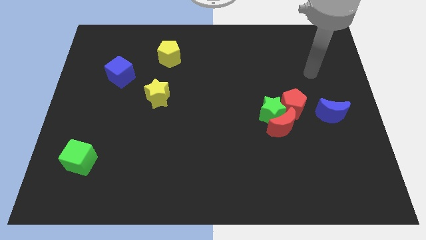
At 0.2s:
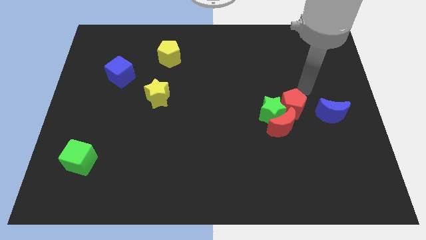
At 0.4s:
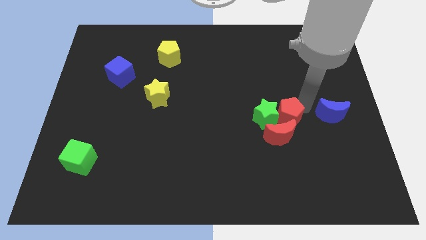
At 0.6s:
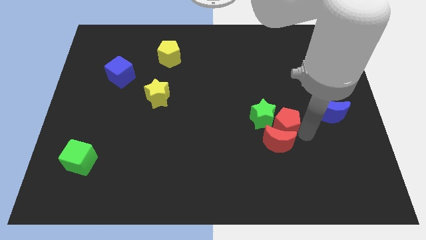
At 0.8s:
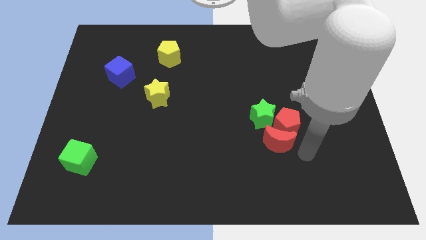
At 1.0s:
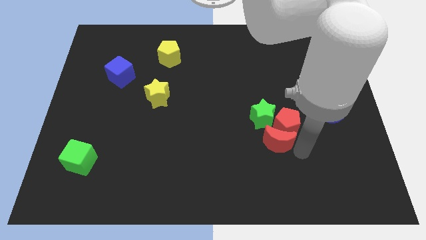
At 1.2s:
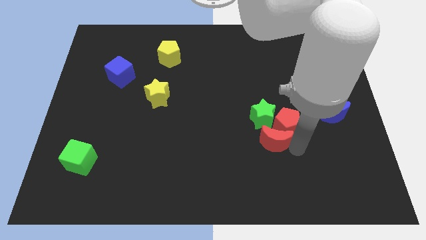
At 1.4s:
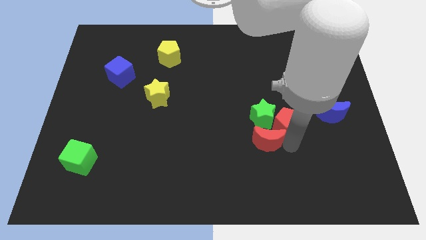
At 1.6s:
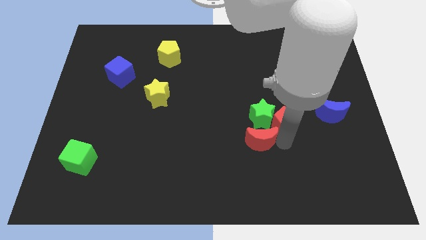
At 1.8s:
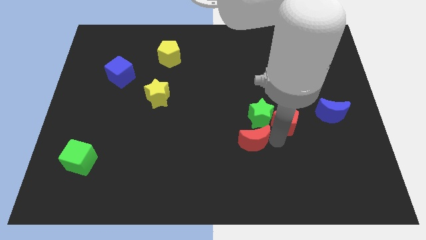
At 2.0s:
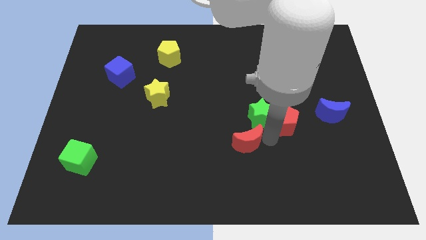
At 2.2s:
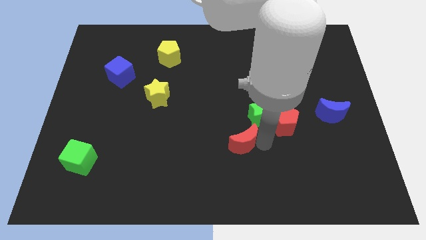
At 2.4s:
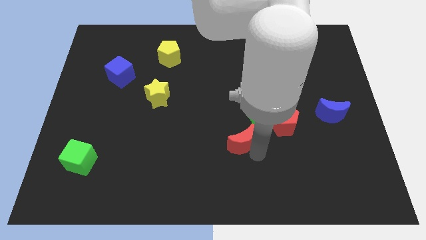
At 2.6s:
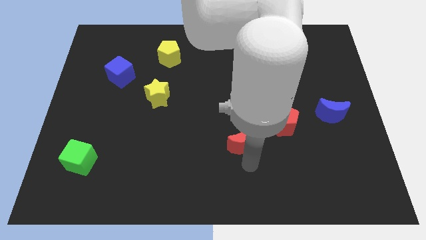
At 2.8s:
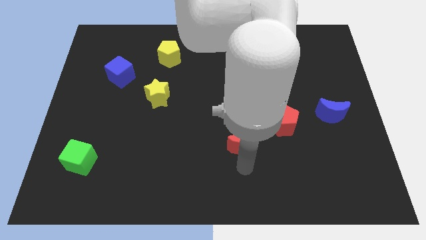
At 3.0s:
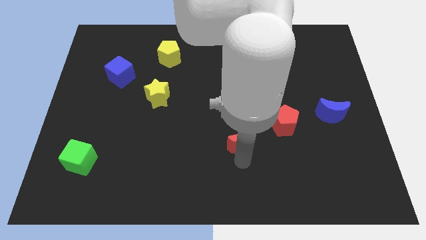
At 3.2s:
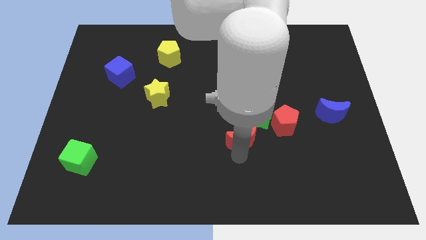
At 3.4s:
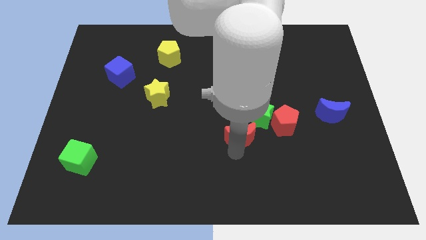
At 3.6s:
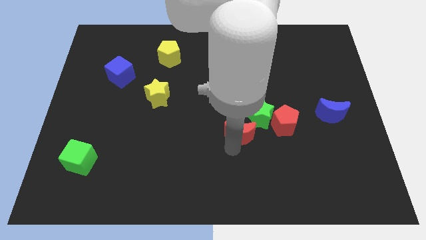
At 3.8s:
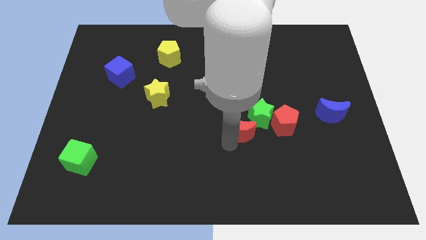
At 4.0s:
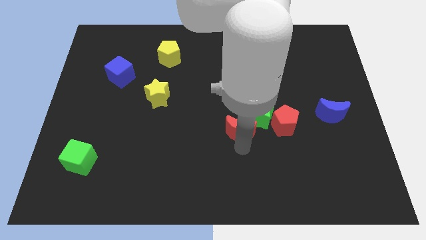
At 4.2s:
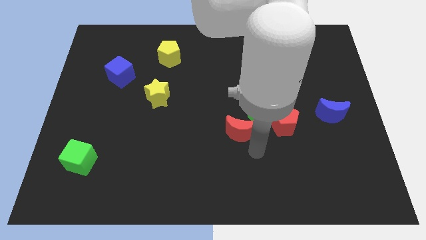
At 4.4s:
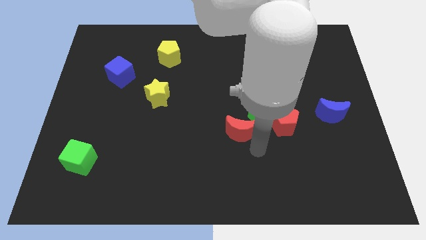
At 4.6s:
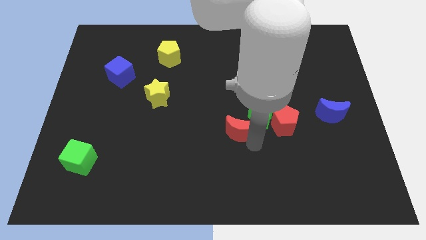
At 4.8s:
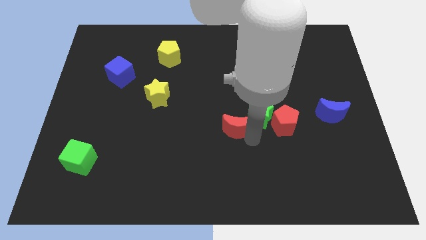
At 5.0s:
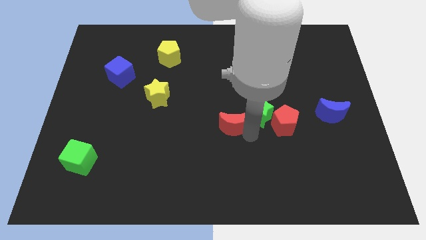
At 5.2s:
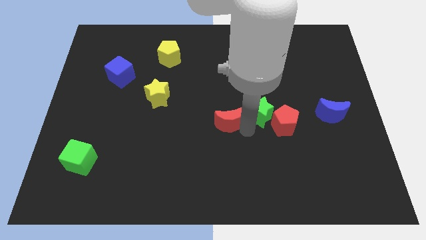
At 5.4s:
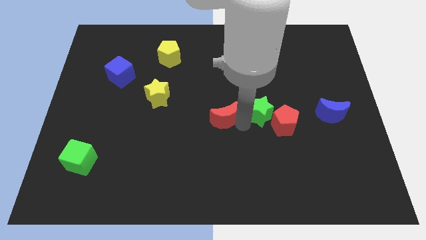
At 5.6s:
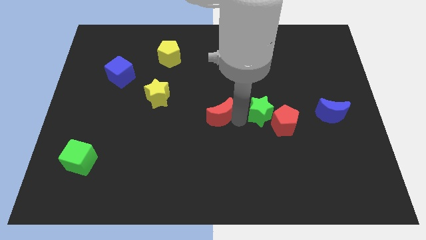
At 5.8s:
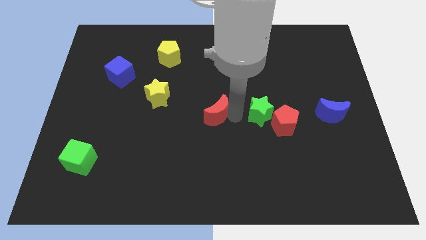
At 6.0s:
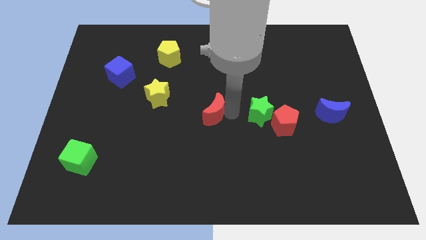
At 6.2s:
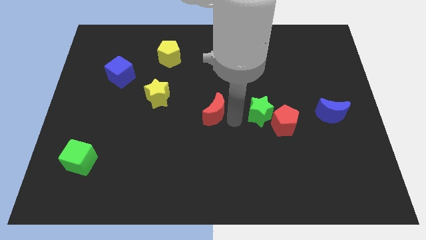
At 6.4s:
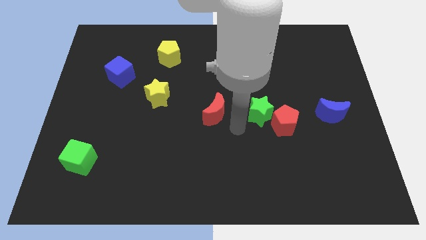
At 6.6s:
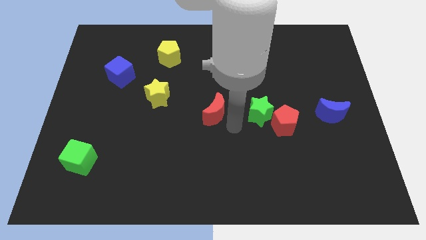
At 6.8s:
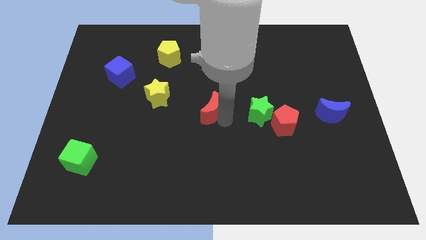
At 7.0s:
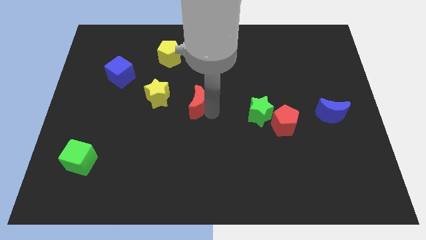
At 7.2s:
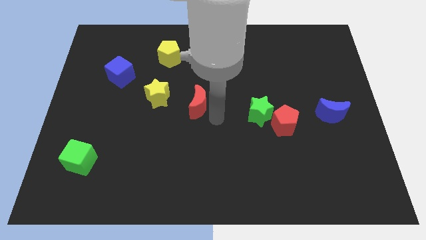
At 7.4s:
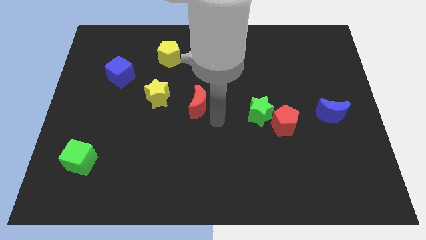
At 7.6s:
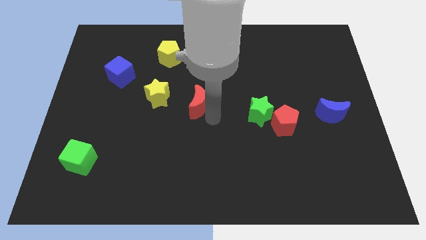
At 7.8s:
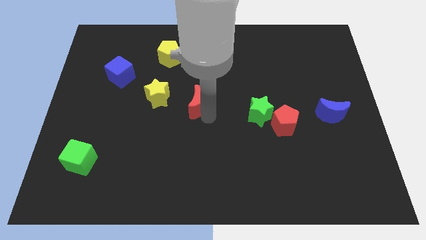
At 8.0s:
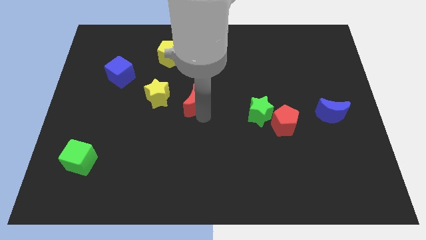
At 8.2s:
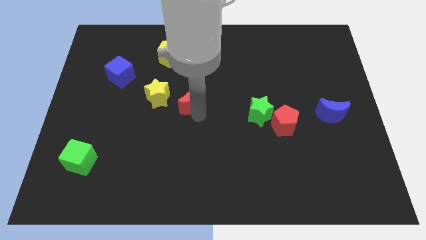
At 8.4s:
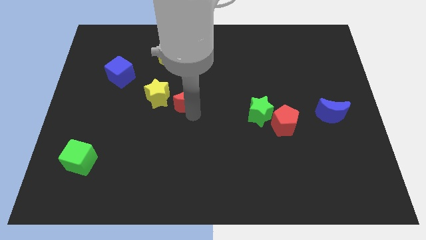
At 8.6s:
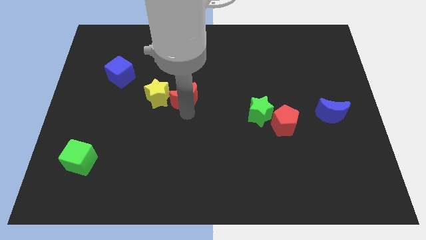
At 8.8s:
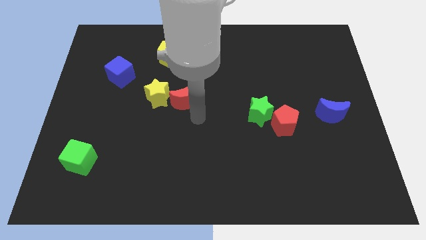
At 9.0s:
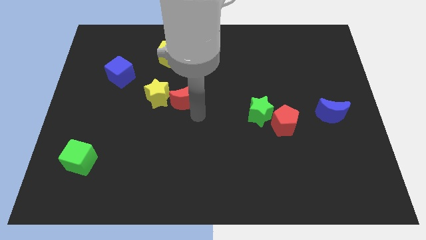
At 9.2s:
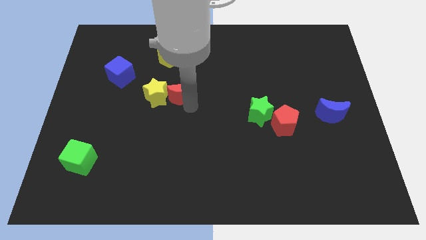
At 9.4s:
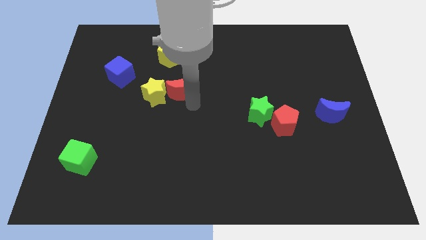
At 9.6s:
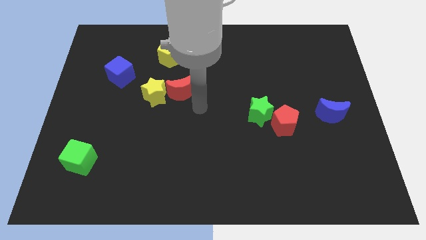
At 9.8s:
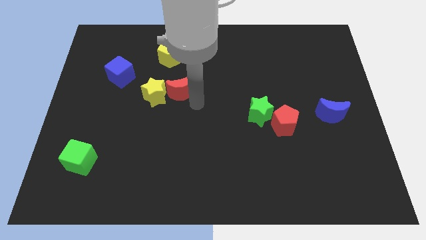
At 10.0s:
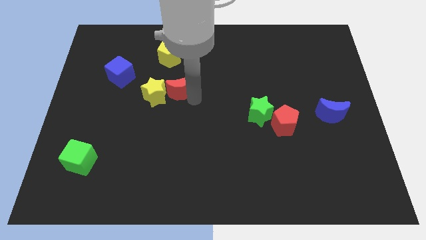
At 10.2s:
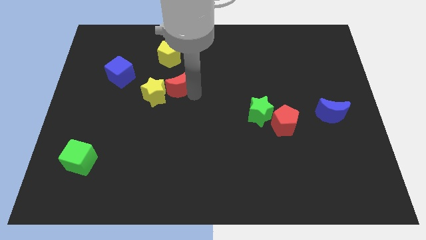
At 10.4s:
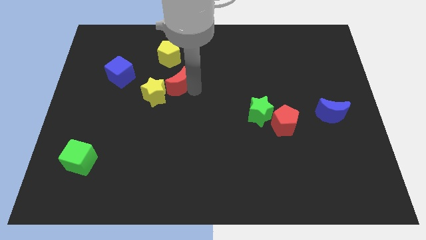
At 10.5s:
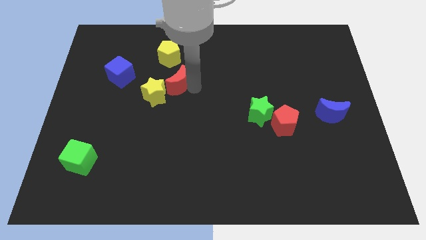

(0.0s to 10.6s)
slide the red moon to the right side of the blue cube

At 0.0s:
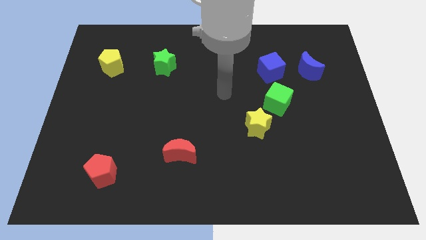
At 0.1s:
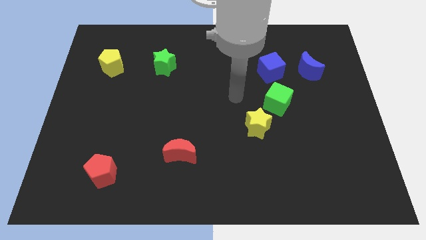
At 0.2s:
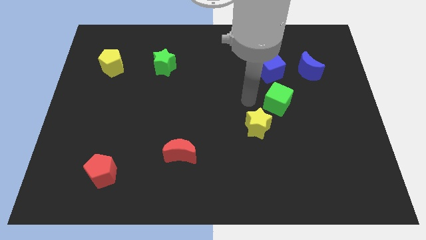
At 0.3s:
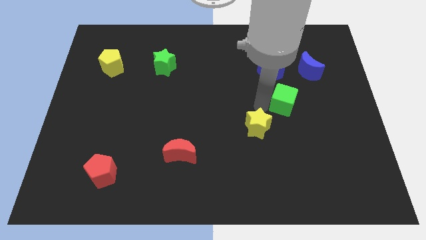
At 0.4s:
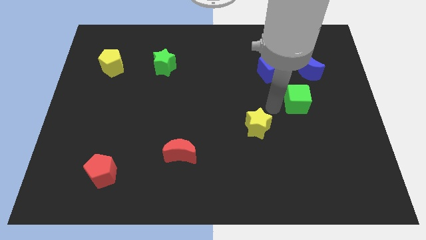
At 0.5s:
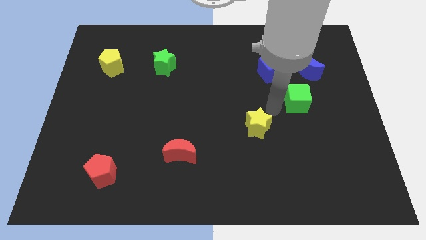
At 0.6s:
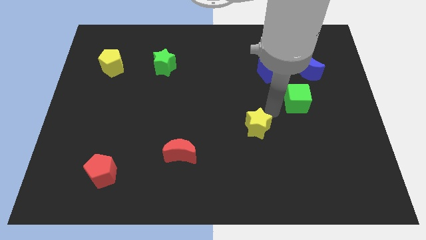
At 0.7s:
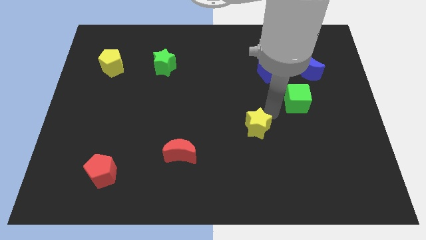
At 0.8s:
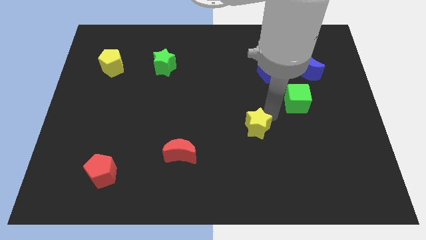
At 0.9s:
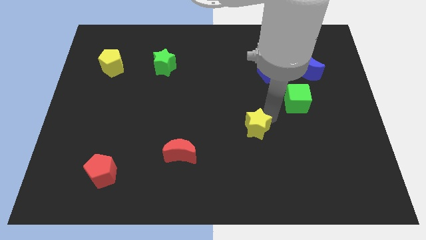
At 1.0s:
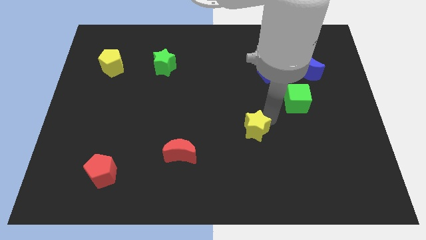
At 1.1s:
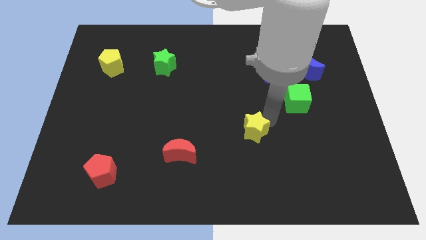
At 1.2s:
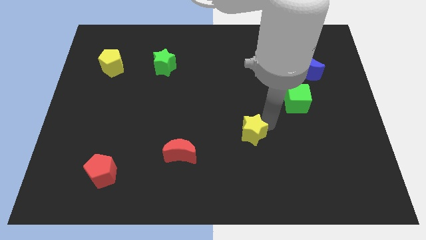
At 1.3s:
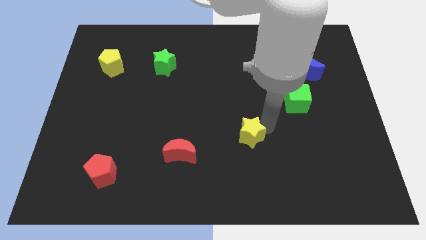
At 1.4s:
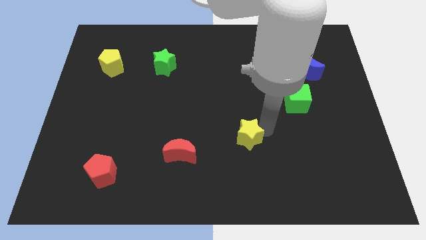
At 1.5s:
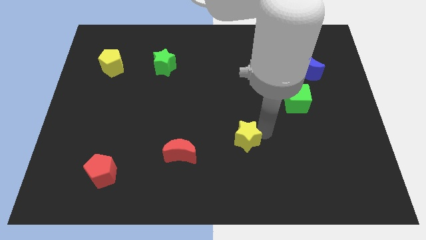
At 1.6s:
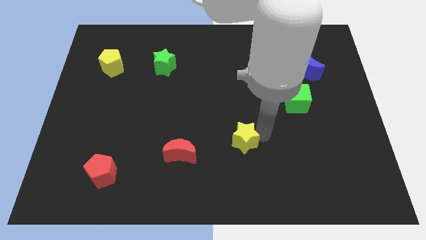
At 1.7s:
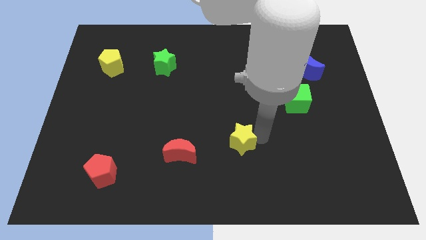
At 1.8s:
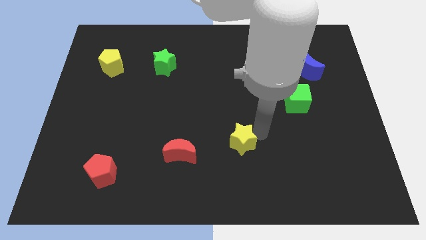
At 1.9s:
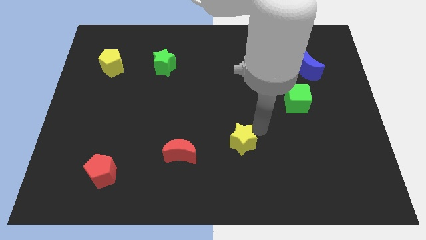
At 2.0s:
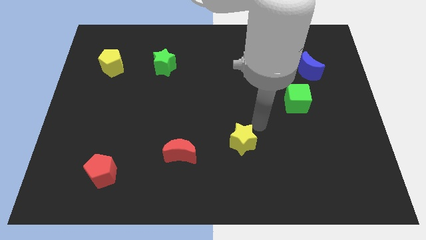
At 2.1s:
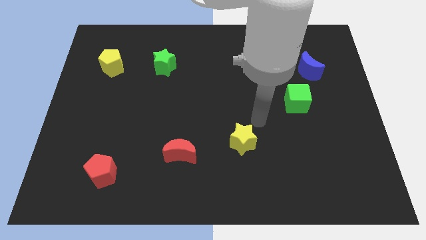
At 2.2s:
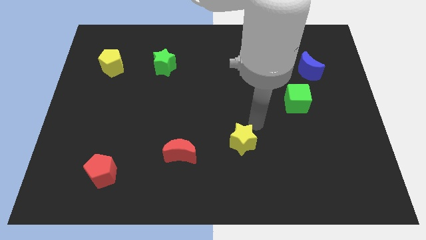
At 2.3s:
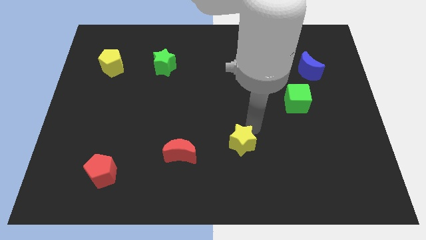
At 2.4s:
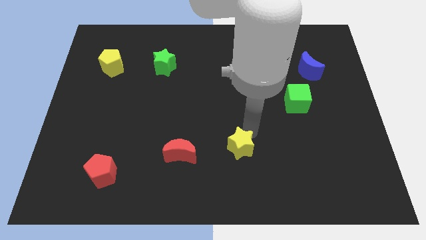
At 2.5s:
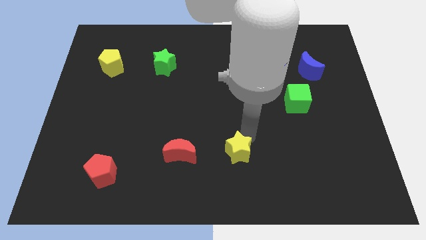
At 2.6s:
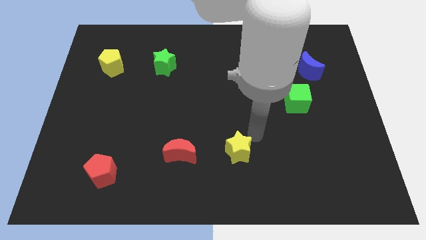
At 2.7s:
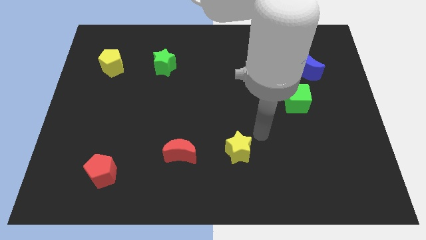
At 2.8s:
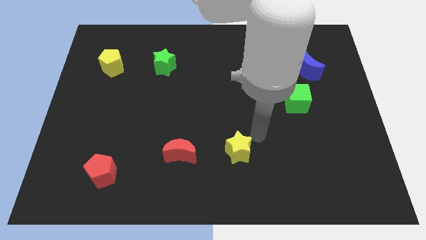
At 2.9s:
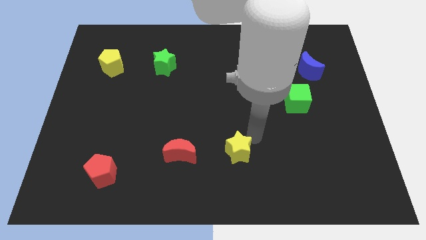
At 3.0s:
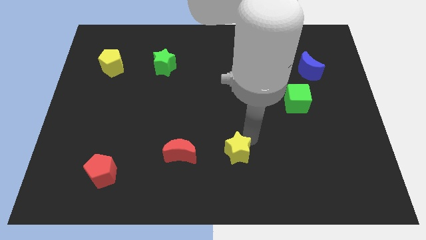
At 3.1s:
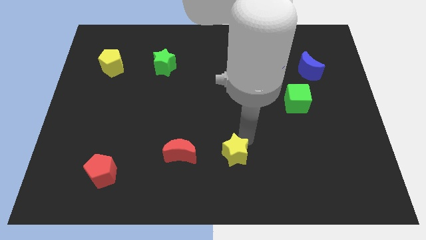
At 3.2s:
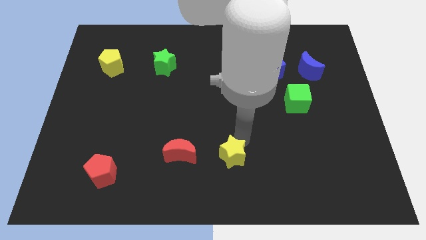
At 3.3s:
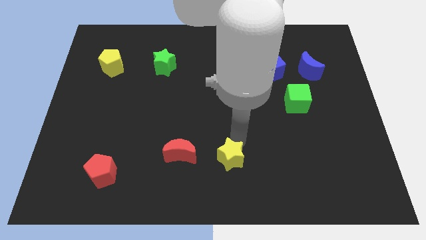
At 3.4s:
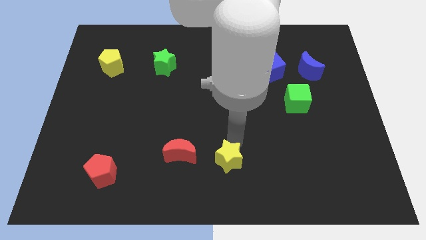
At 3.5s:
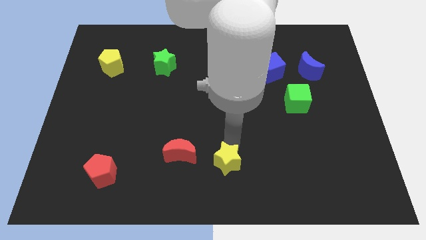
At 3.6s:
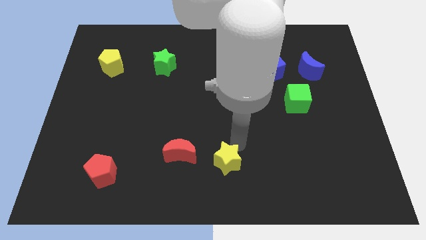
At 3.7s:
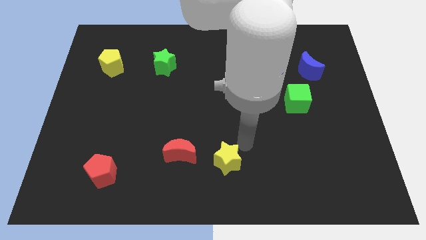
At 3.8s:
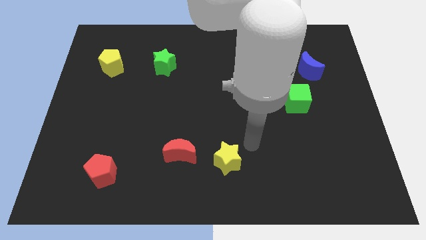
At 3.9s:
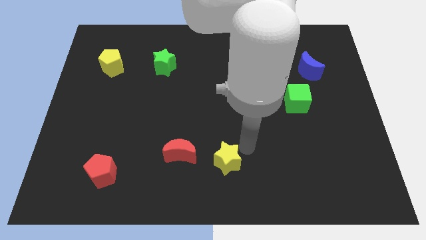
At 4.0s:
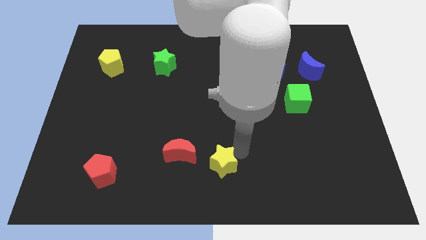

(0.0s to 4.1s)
move the yellow star diagonally down and to the right of the red moon
